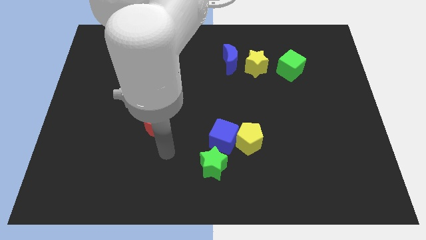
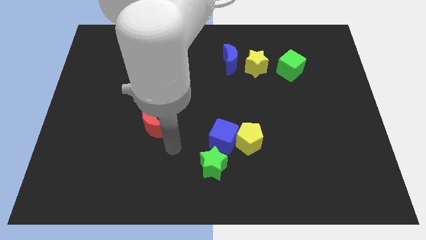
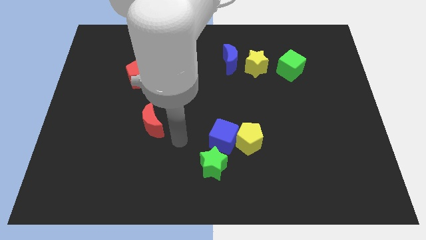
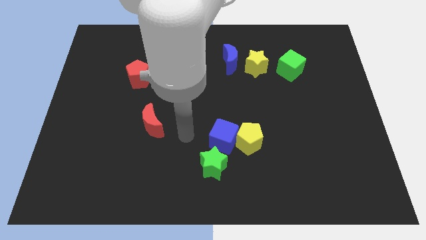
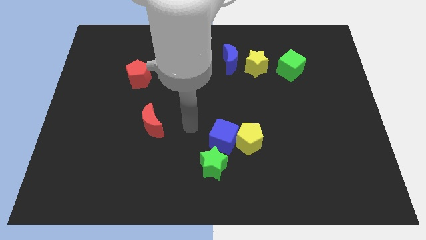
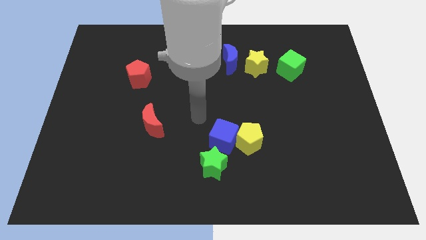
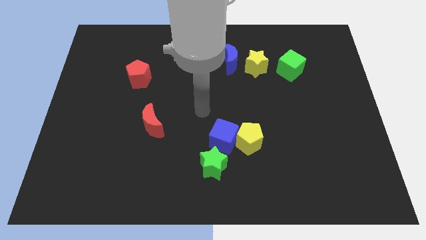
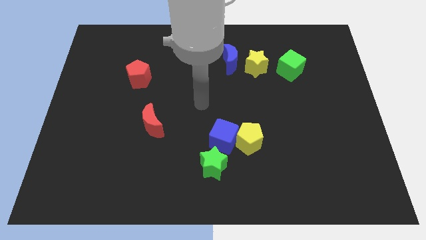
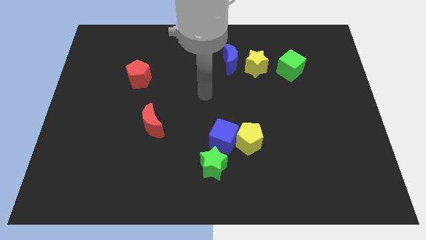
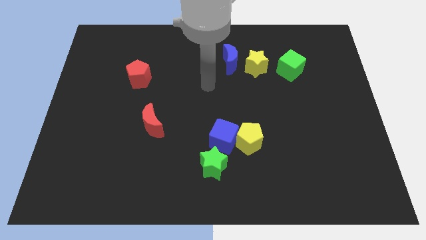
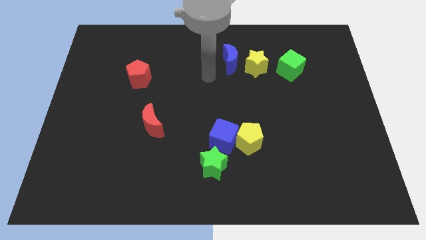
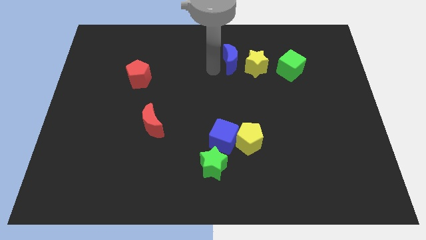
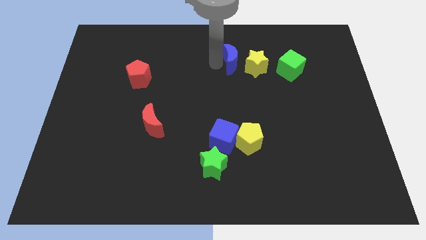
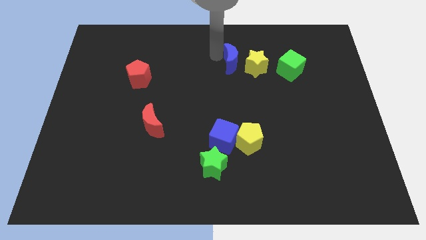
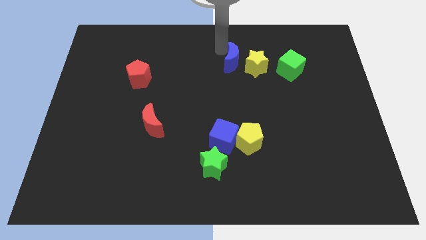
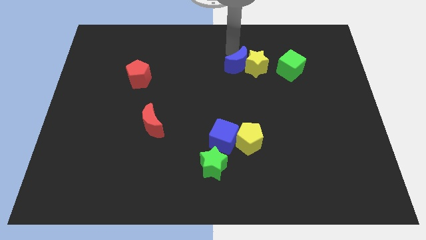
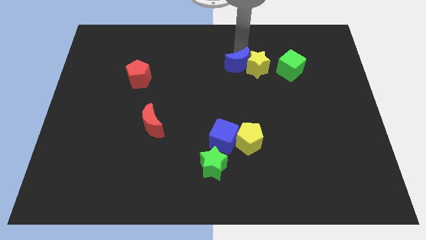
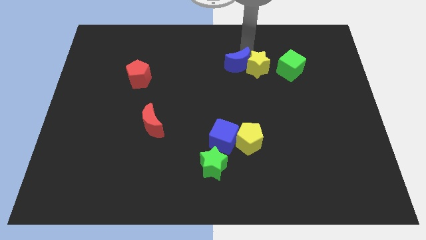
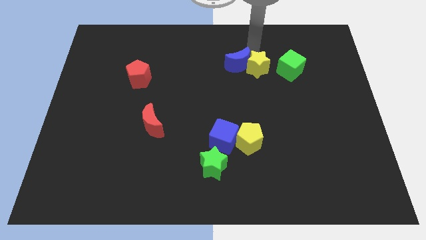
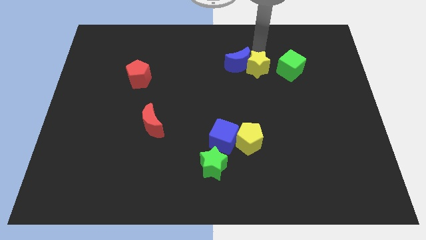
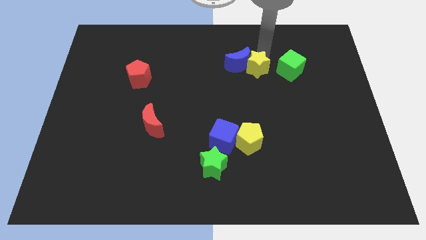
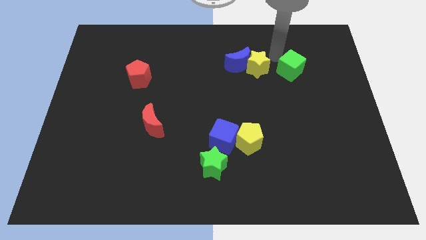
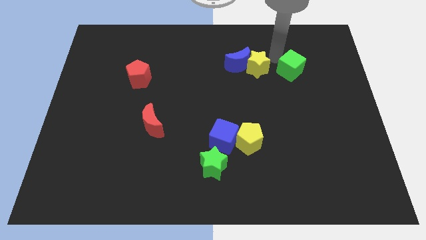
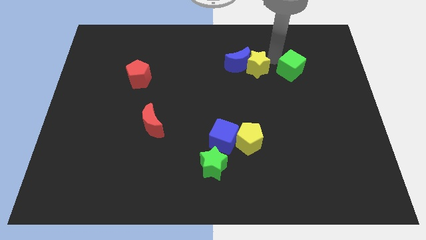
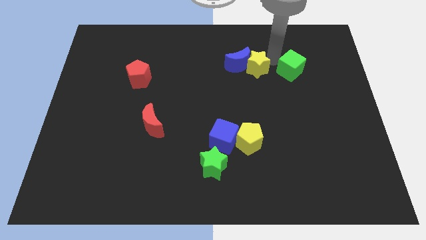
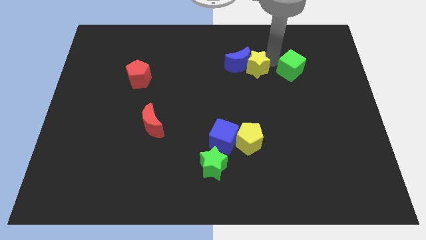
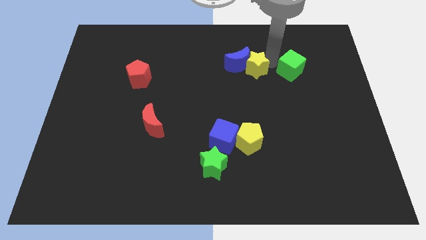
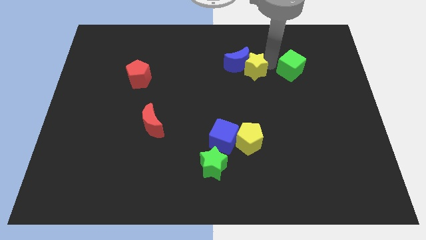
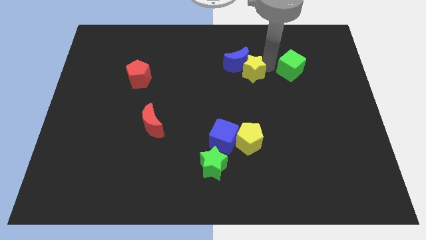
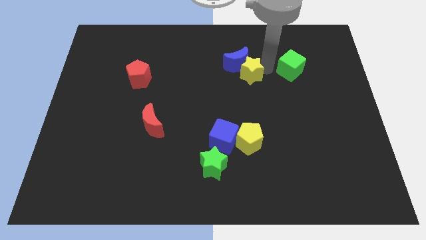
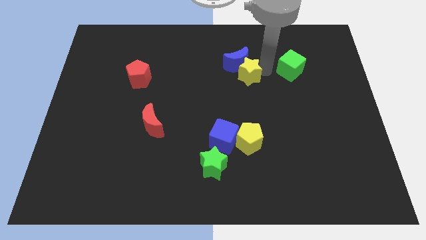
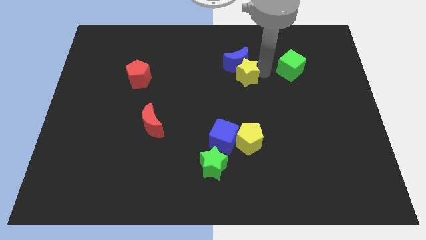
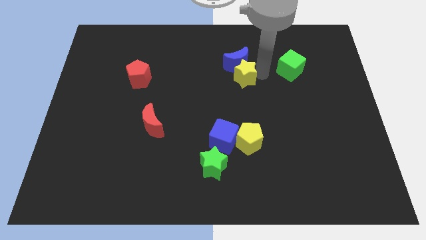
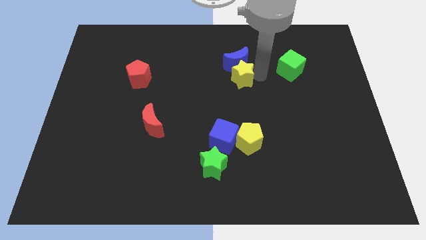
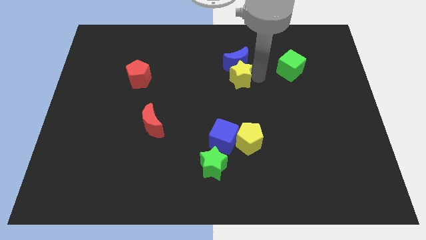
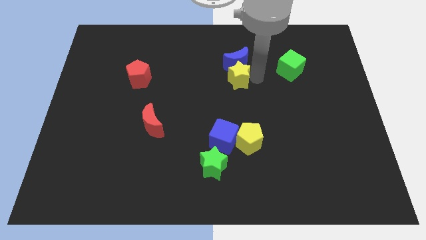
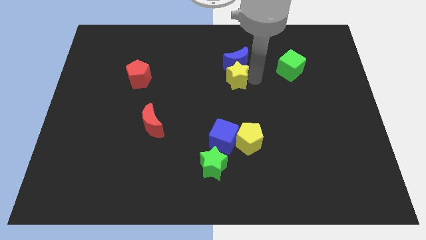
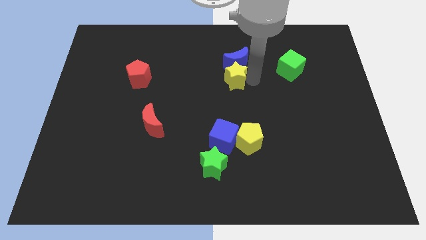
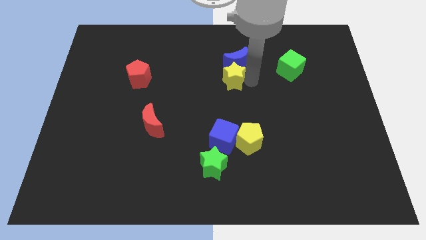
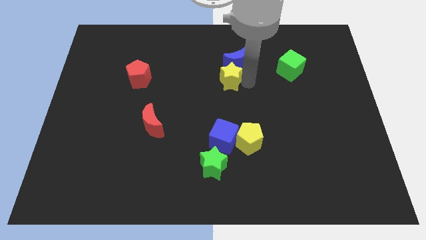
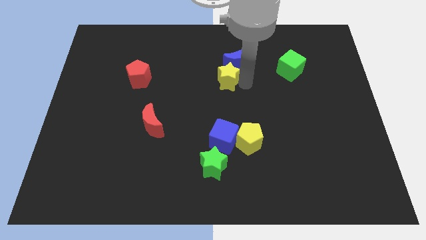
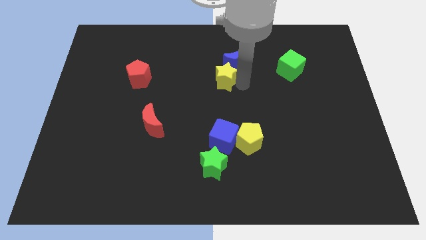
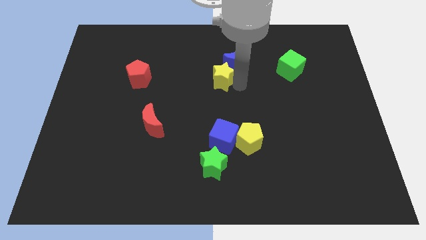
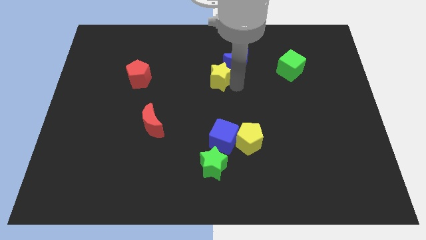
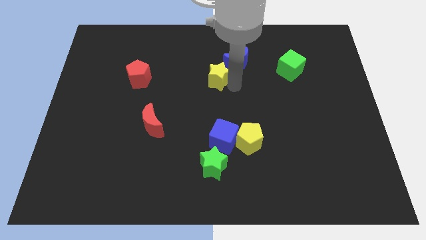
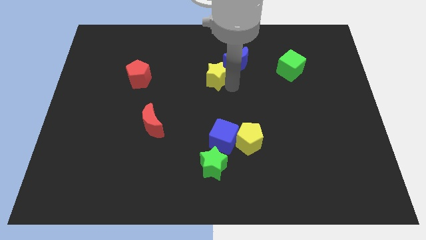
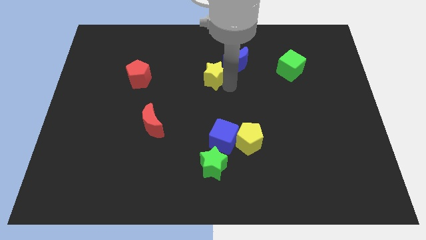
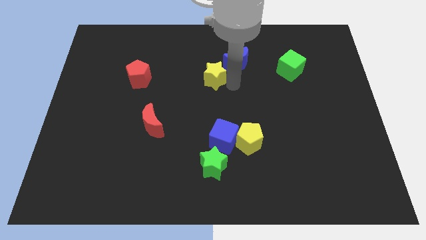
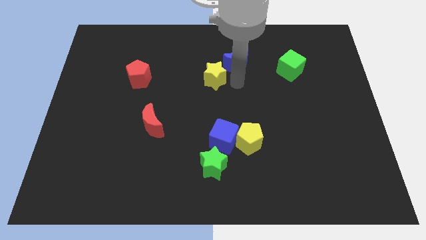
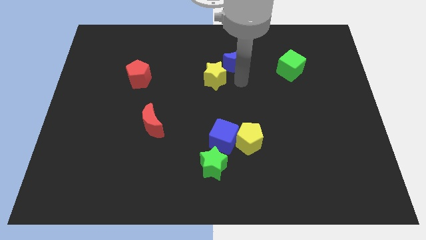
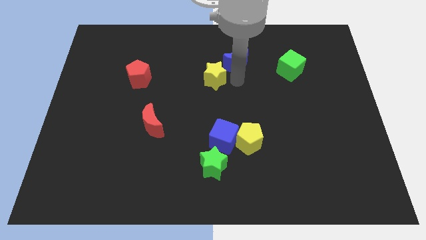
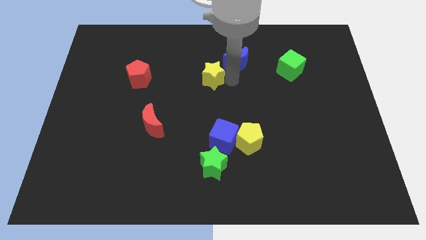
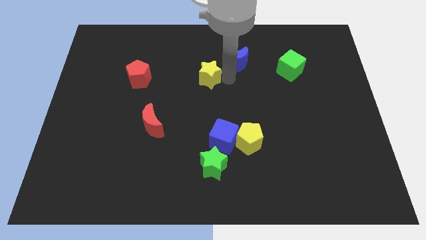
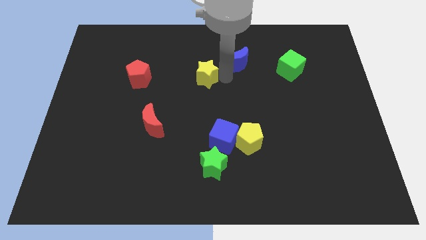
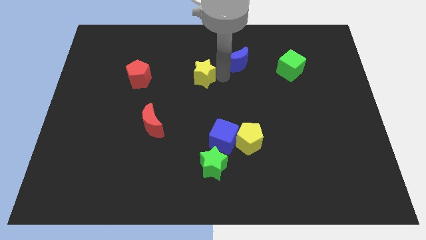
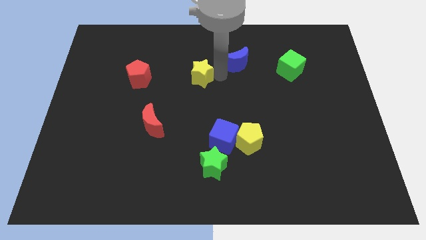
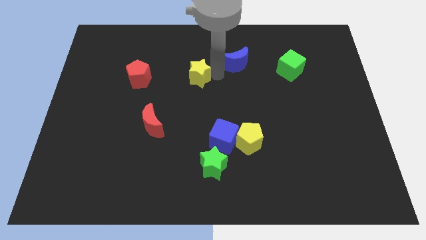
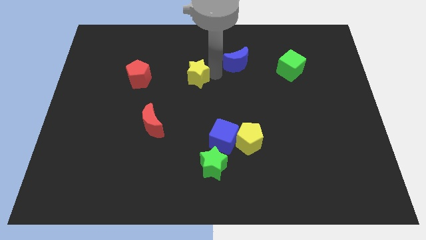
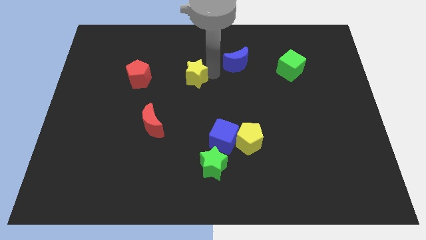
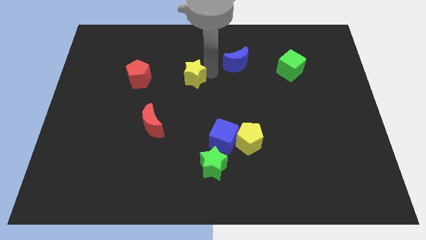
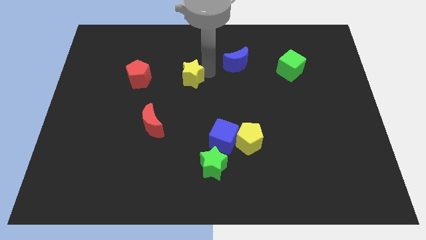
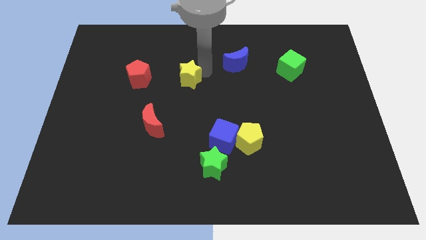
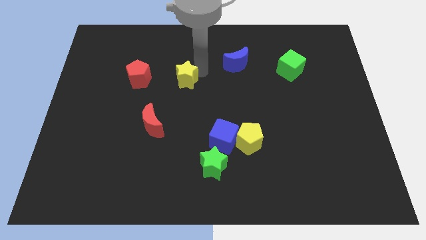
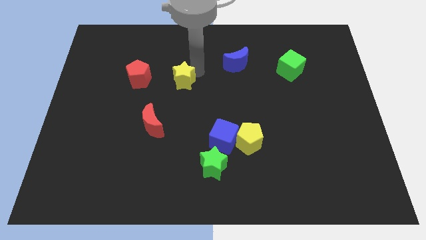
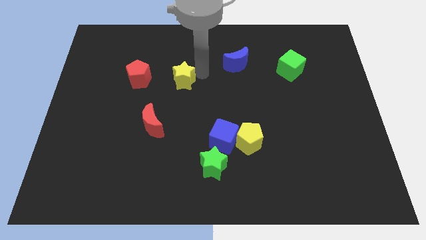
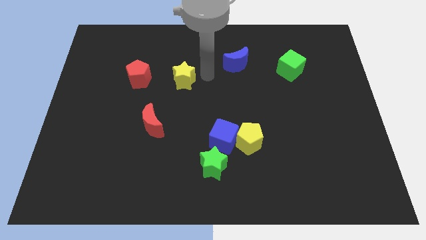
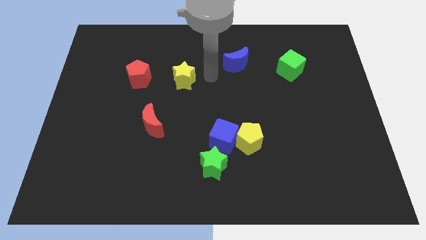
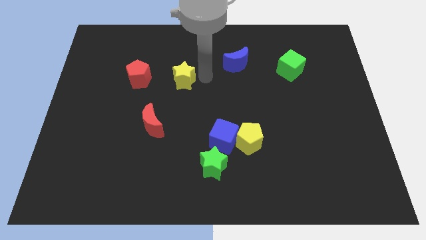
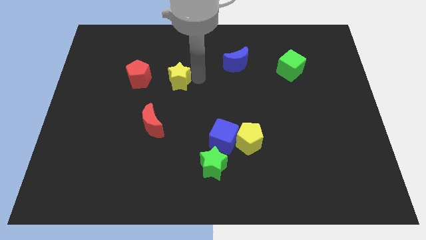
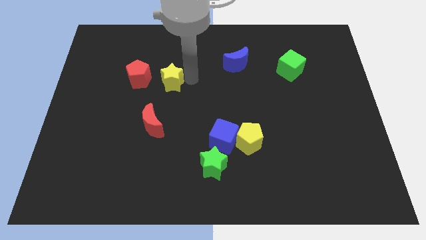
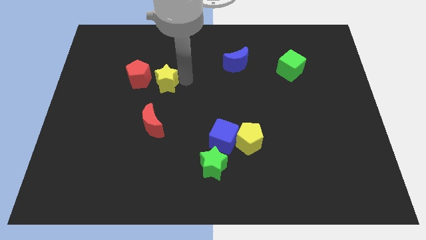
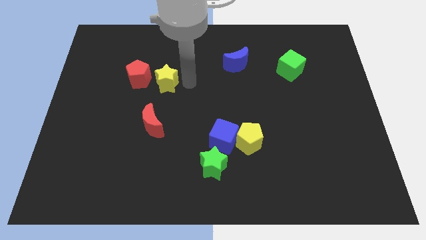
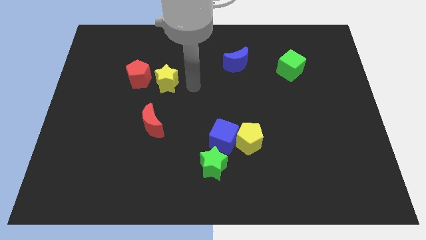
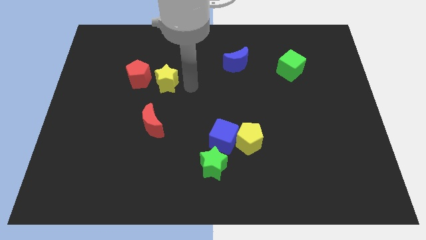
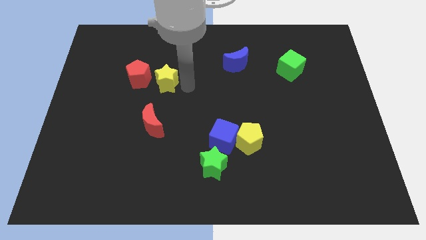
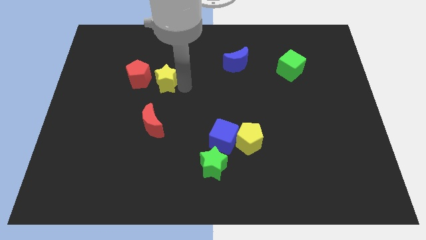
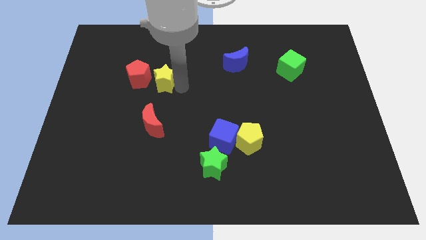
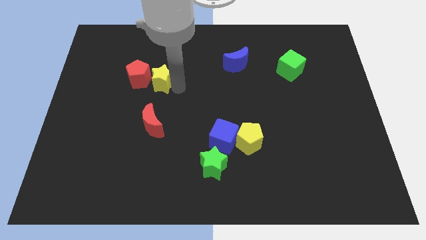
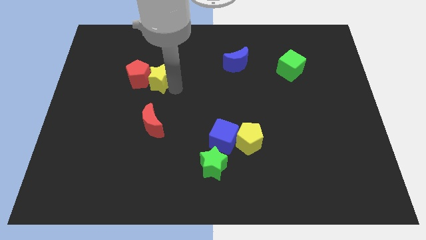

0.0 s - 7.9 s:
slide the yellow star close to the red pentagon
